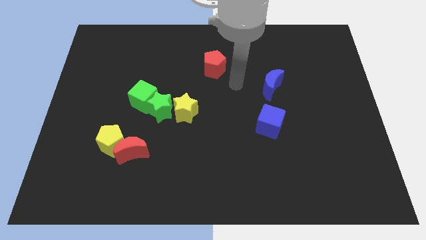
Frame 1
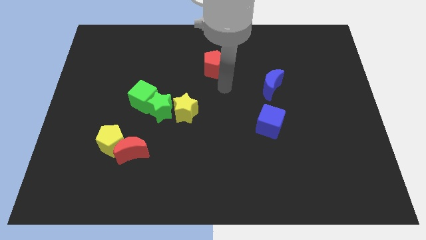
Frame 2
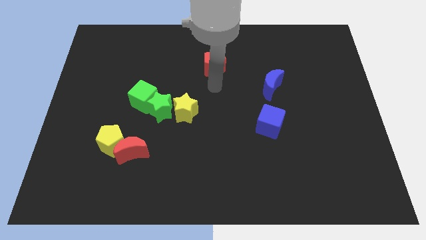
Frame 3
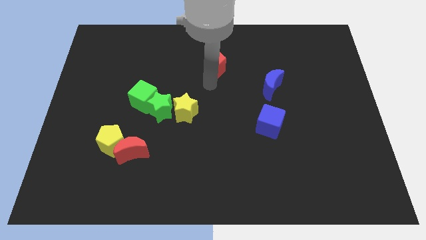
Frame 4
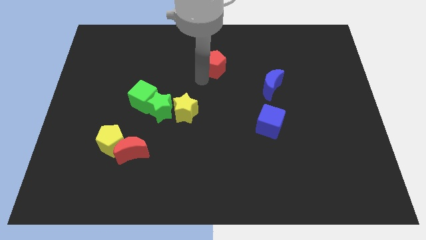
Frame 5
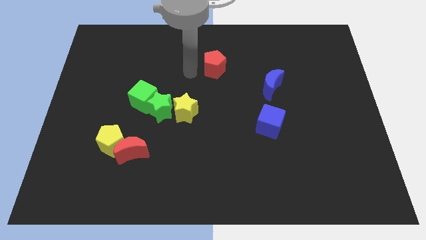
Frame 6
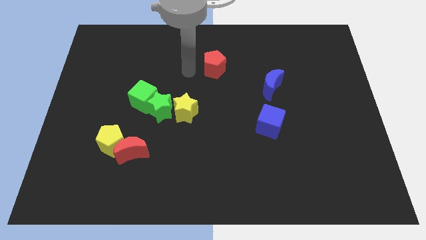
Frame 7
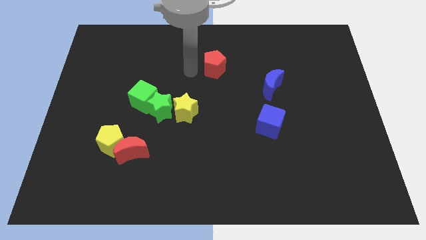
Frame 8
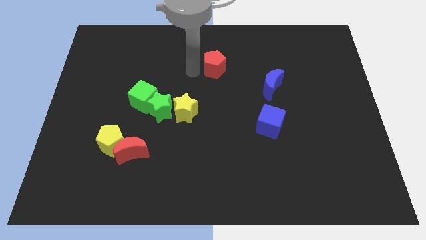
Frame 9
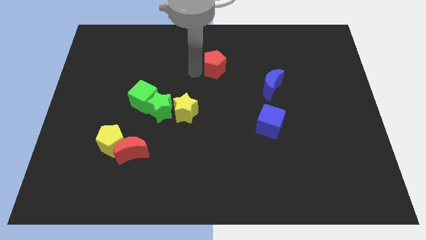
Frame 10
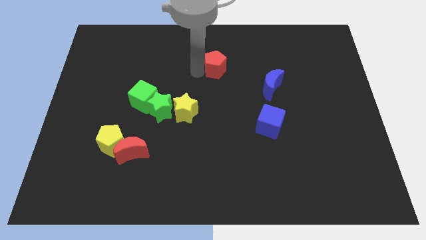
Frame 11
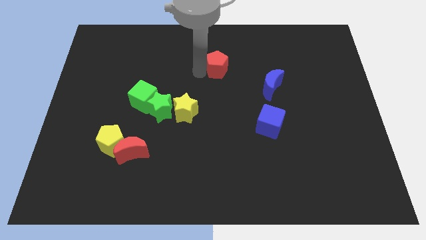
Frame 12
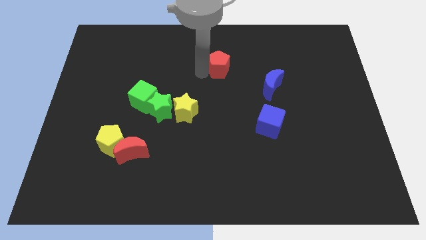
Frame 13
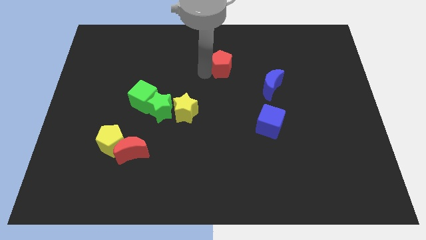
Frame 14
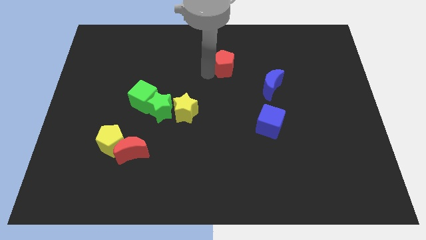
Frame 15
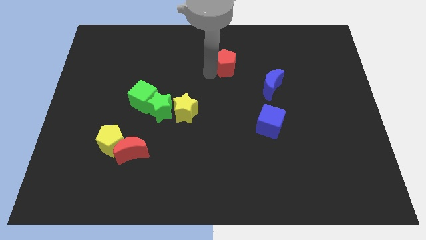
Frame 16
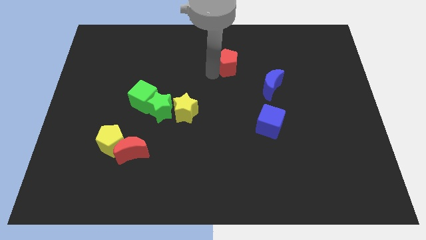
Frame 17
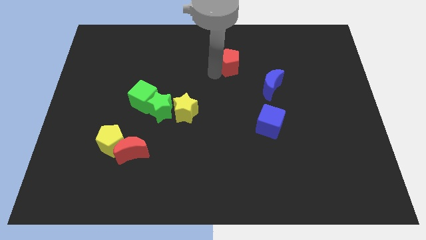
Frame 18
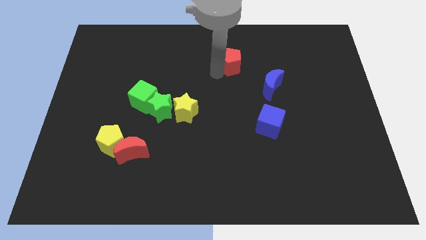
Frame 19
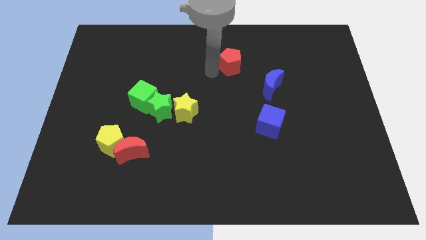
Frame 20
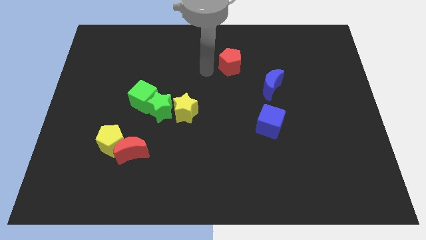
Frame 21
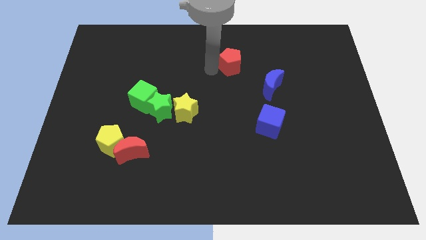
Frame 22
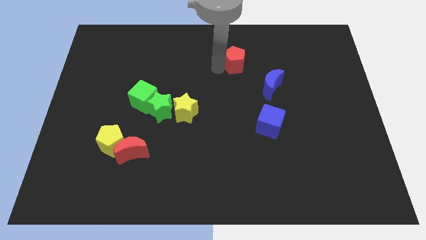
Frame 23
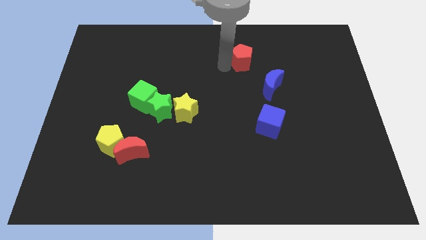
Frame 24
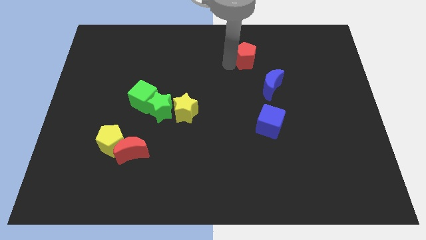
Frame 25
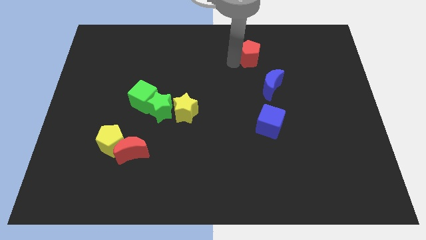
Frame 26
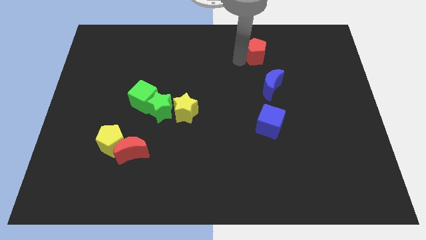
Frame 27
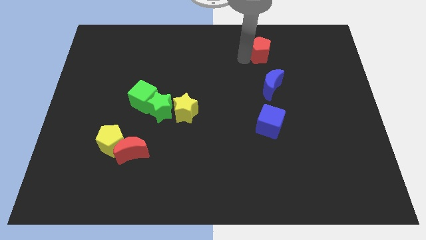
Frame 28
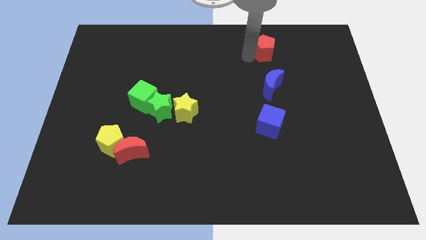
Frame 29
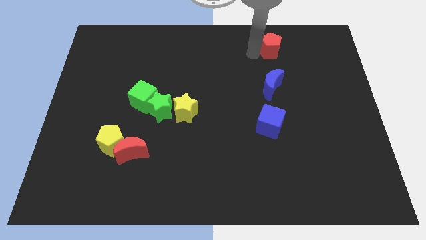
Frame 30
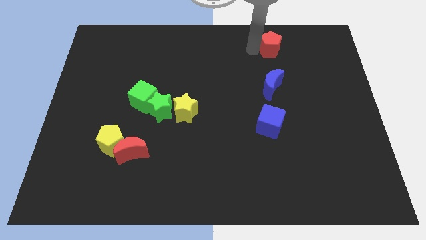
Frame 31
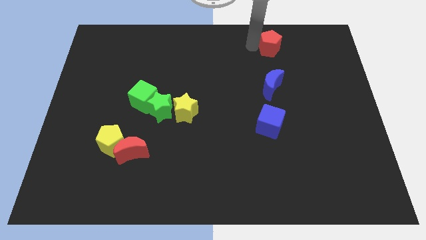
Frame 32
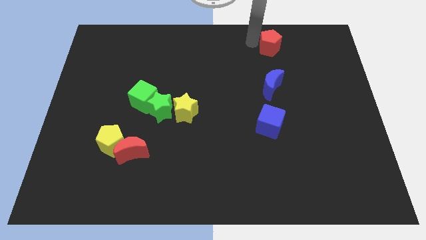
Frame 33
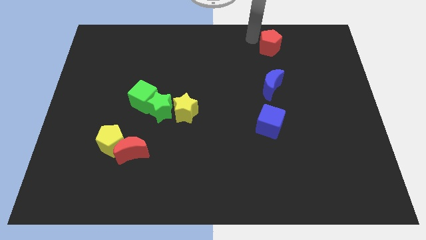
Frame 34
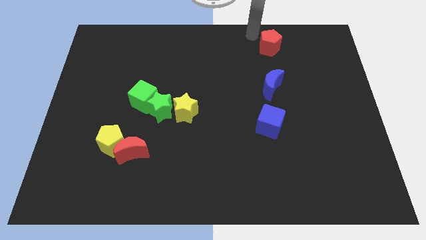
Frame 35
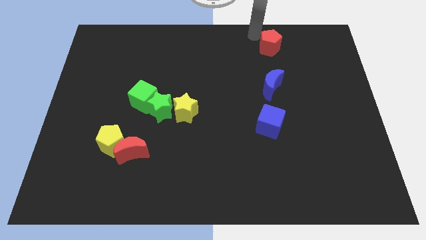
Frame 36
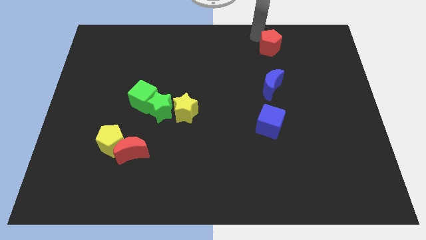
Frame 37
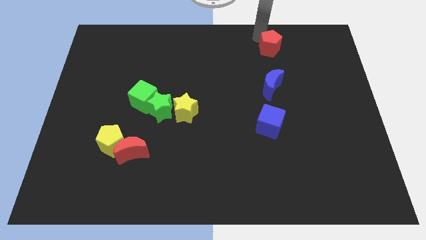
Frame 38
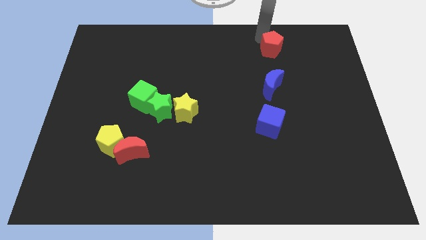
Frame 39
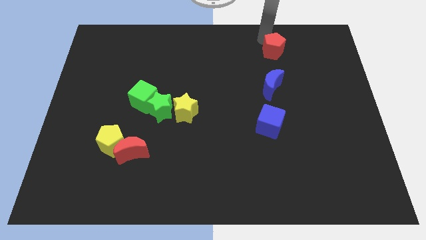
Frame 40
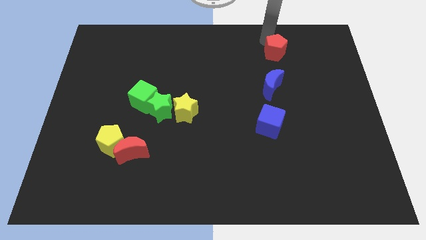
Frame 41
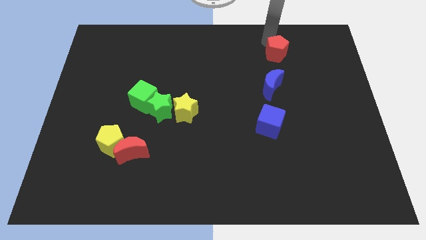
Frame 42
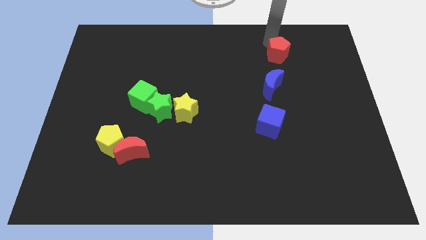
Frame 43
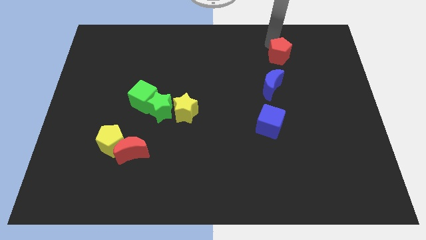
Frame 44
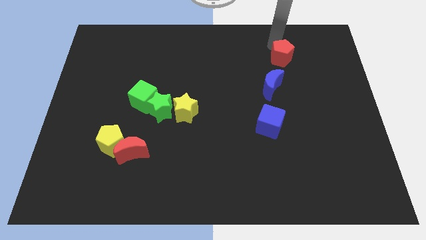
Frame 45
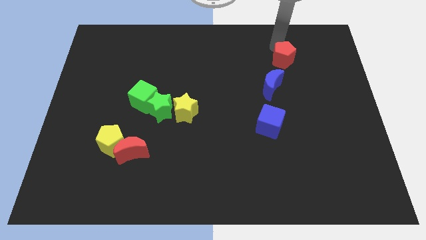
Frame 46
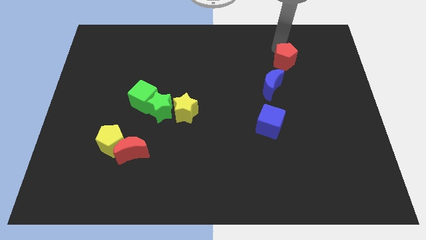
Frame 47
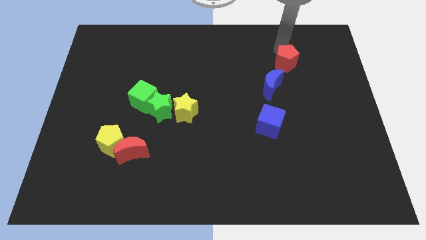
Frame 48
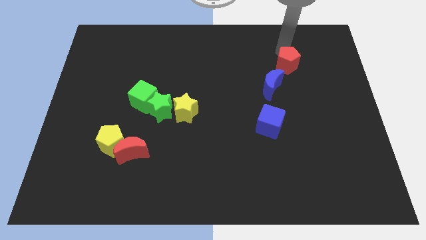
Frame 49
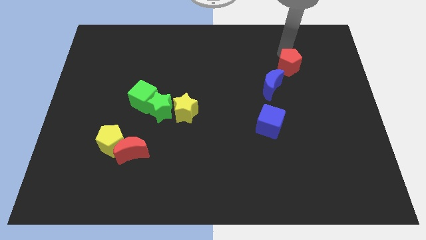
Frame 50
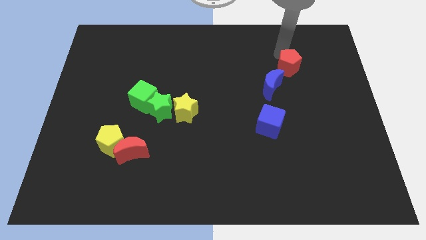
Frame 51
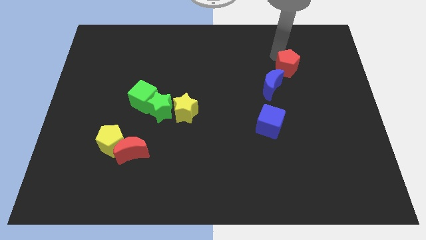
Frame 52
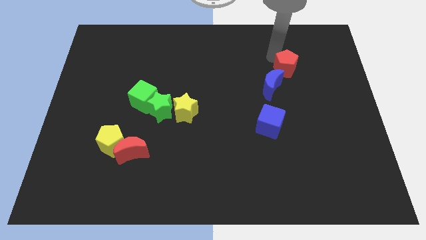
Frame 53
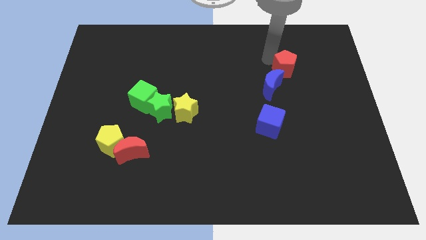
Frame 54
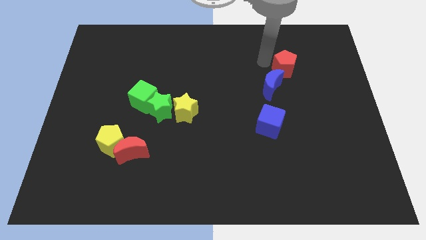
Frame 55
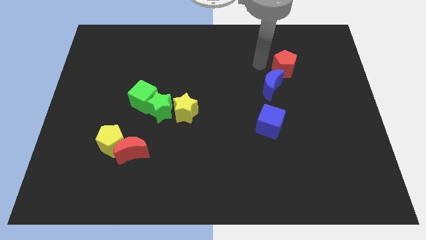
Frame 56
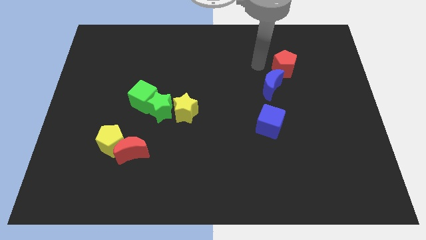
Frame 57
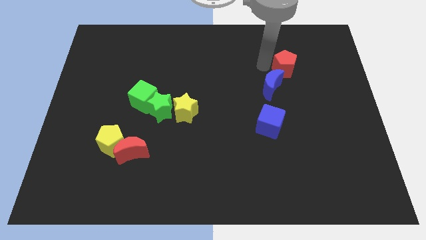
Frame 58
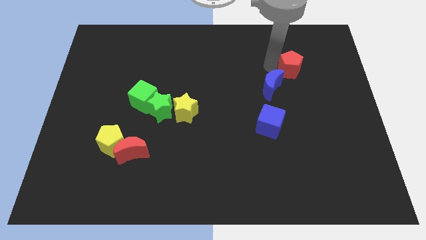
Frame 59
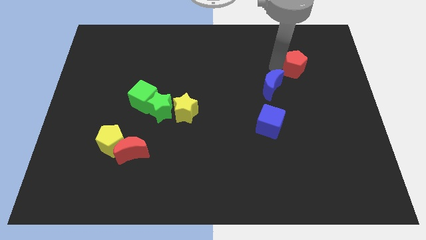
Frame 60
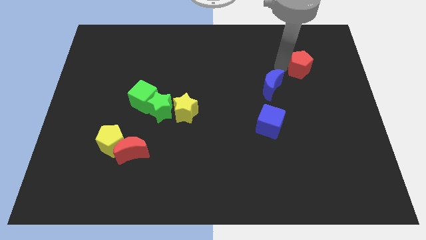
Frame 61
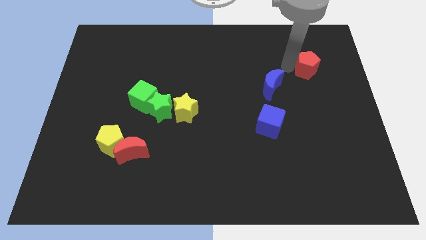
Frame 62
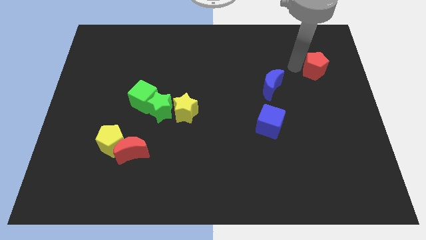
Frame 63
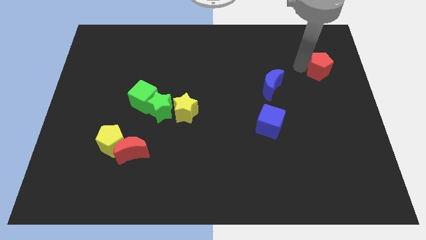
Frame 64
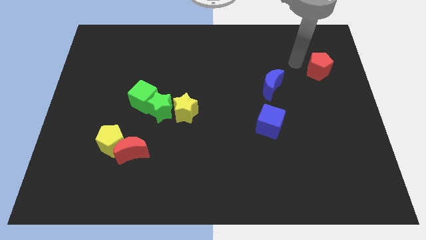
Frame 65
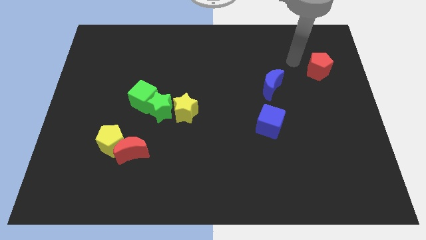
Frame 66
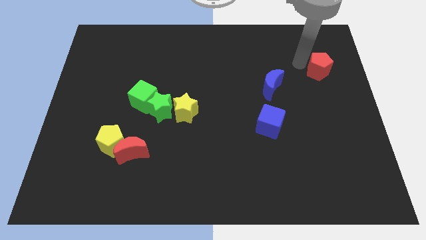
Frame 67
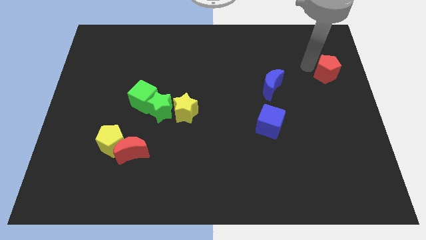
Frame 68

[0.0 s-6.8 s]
move the red pentagon to the center right
